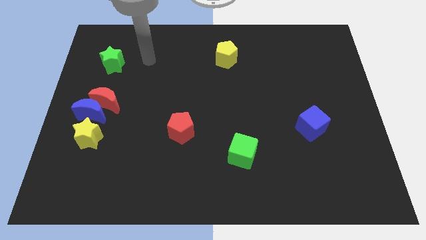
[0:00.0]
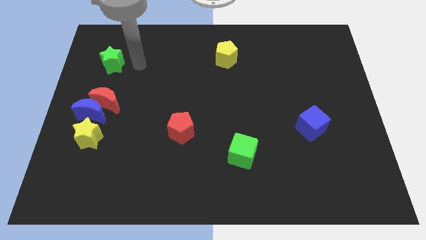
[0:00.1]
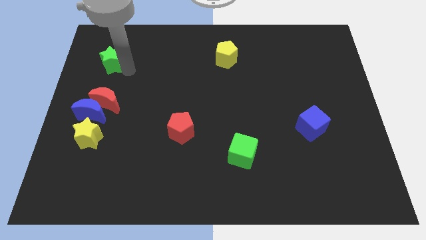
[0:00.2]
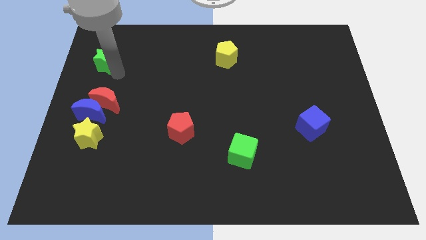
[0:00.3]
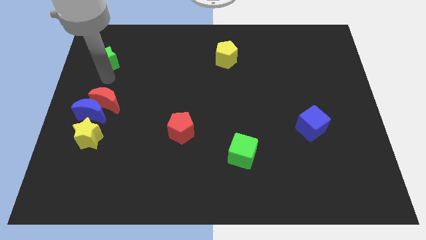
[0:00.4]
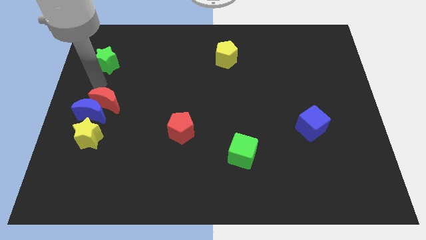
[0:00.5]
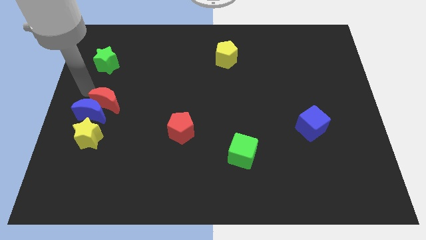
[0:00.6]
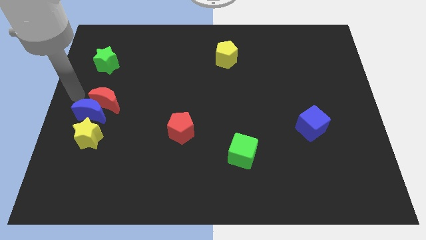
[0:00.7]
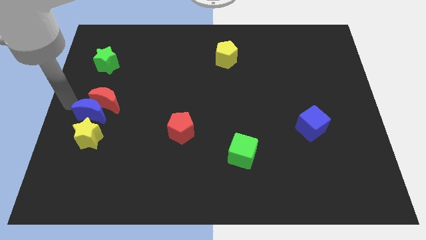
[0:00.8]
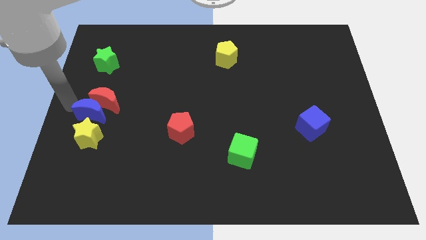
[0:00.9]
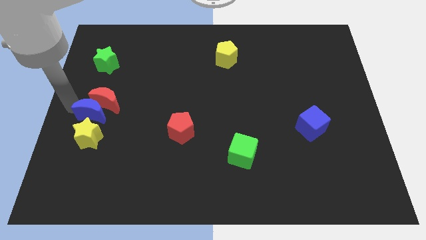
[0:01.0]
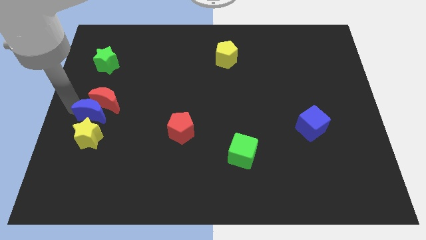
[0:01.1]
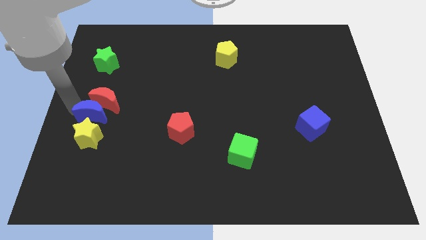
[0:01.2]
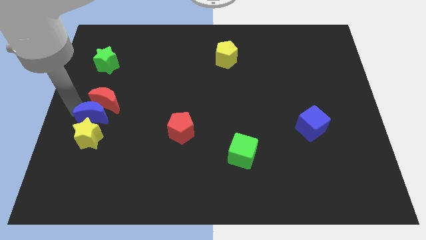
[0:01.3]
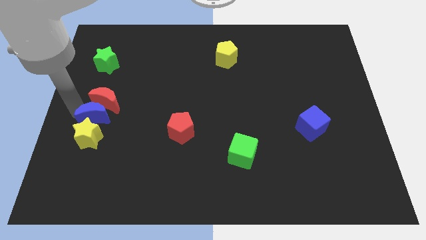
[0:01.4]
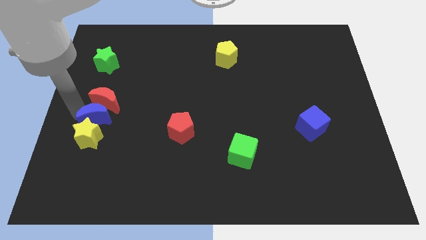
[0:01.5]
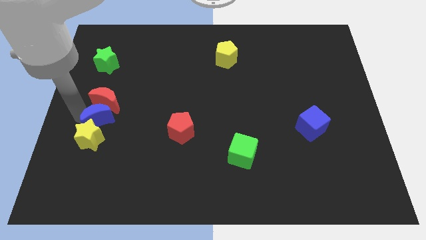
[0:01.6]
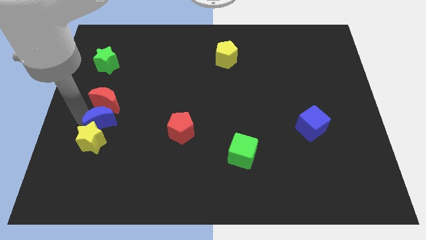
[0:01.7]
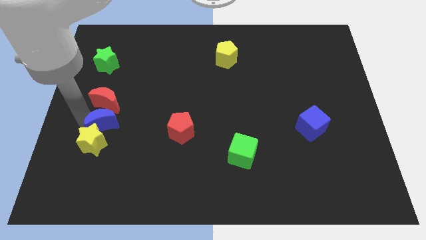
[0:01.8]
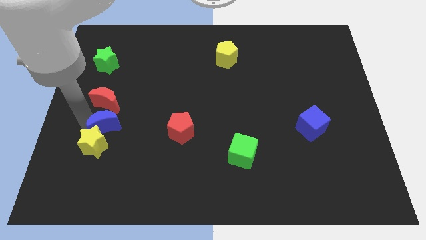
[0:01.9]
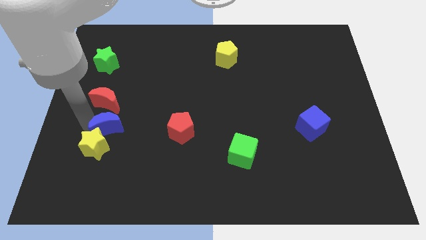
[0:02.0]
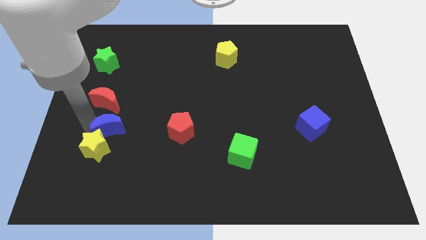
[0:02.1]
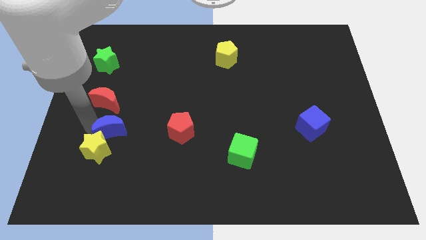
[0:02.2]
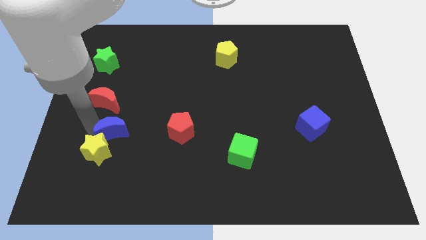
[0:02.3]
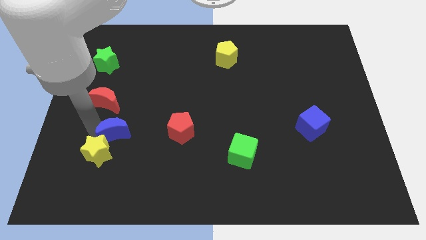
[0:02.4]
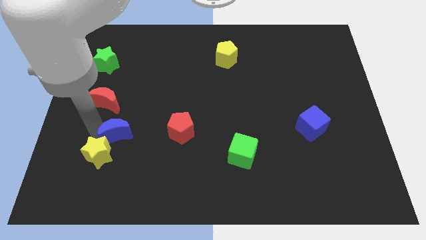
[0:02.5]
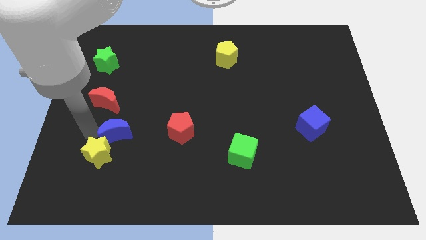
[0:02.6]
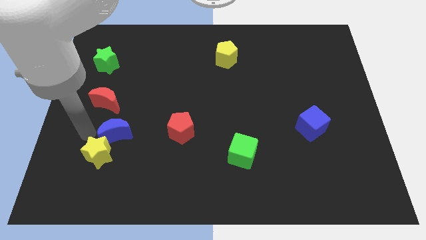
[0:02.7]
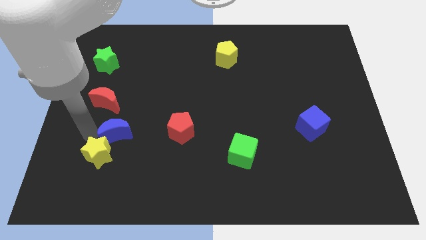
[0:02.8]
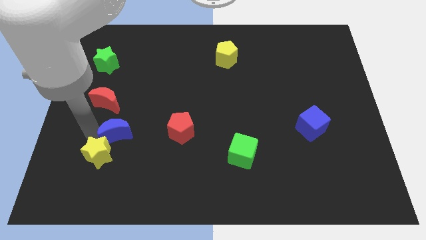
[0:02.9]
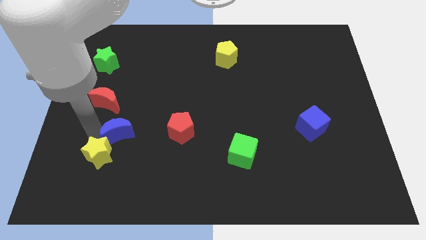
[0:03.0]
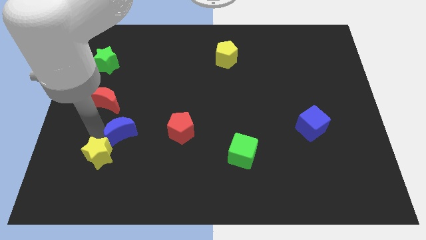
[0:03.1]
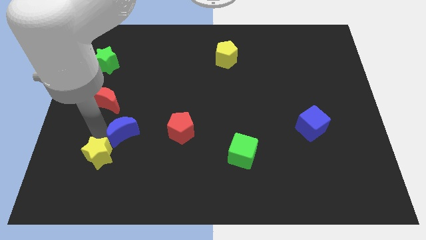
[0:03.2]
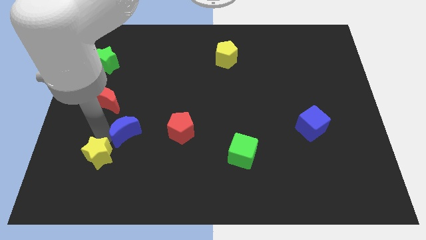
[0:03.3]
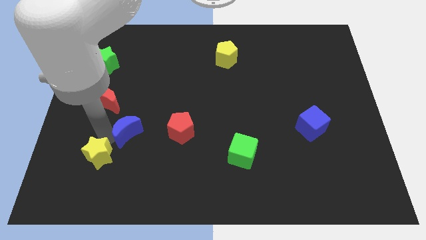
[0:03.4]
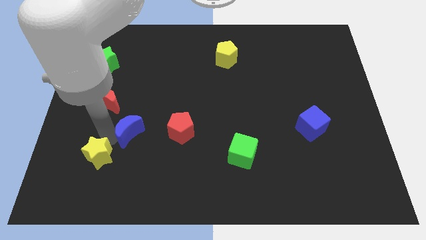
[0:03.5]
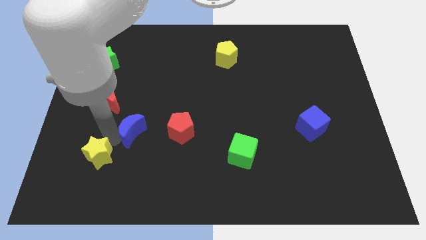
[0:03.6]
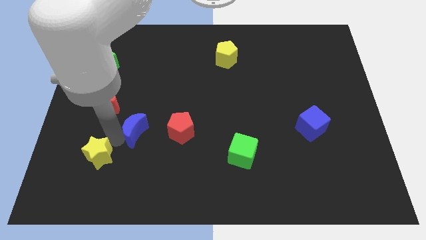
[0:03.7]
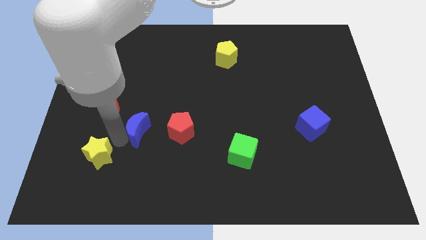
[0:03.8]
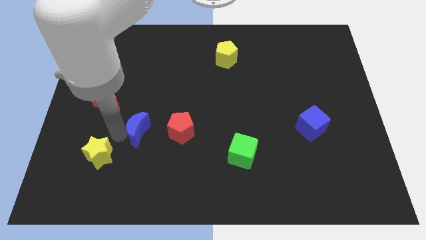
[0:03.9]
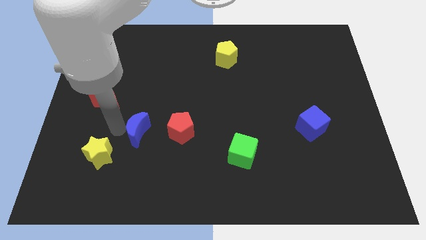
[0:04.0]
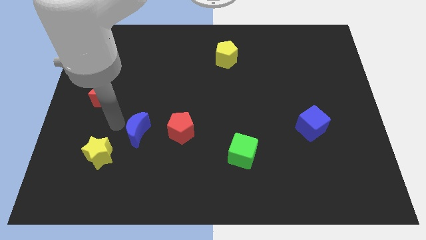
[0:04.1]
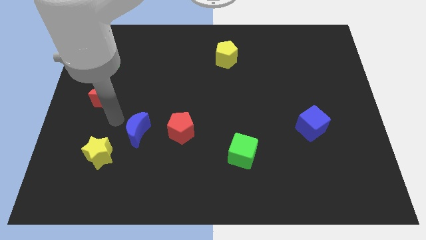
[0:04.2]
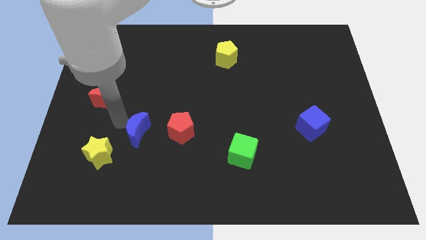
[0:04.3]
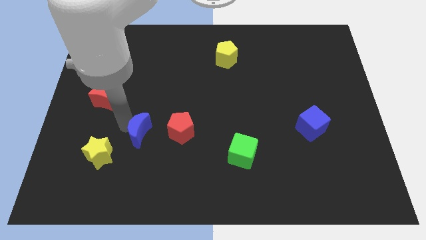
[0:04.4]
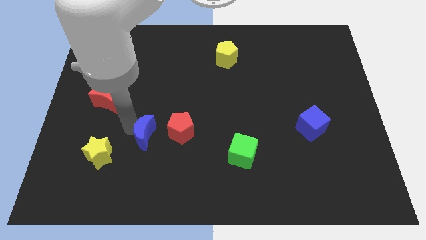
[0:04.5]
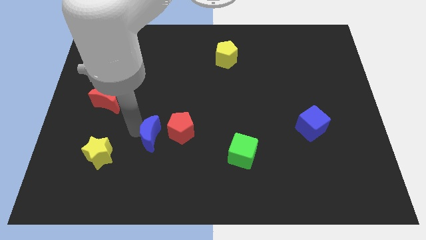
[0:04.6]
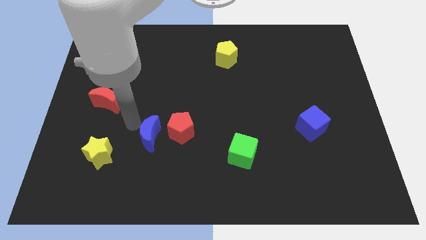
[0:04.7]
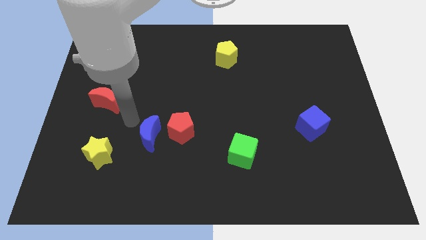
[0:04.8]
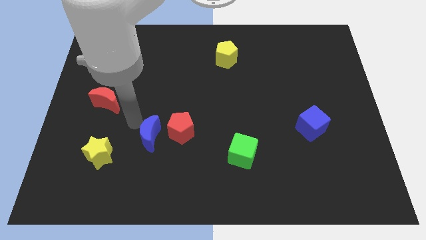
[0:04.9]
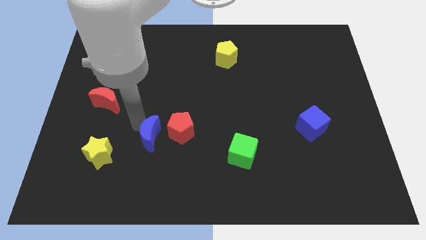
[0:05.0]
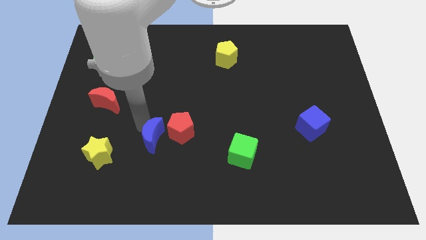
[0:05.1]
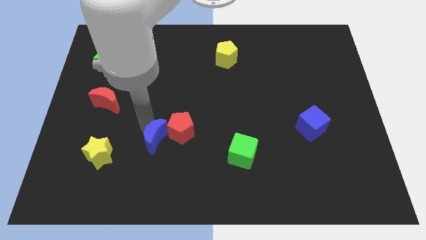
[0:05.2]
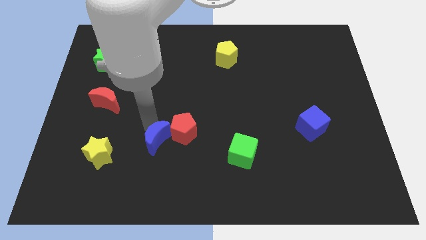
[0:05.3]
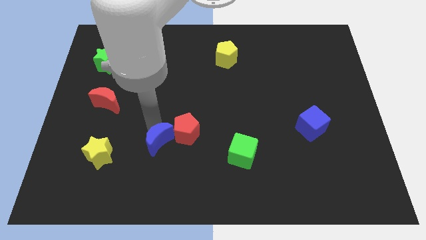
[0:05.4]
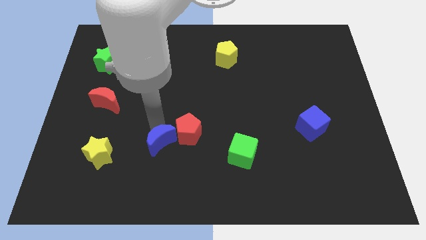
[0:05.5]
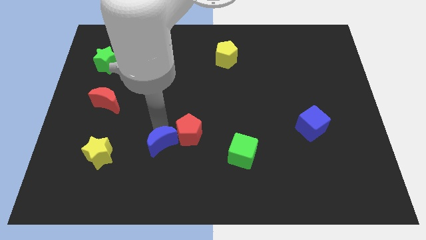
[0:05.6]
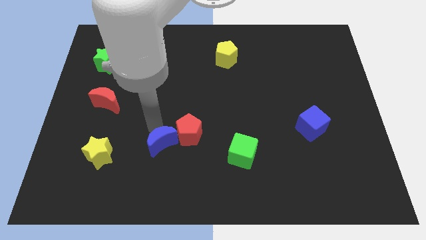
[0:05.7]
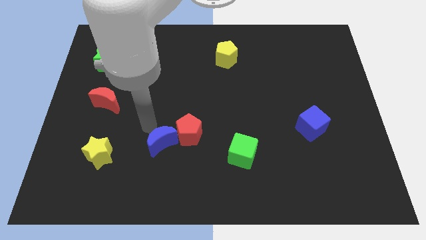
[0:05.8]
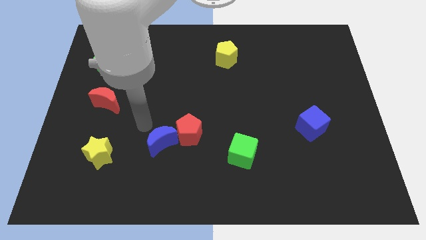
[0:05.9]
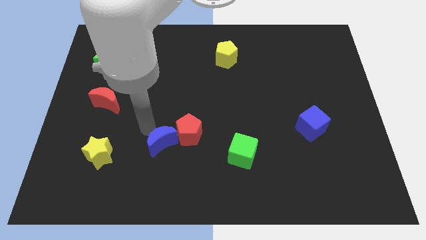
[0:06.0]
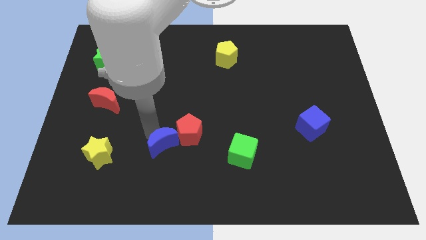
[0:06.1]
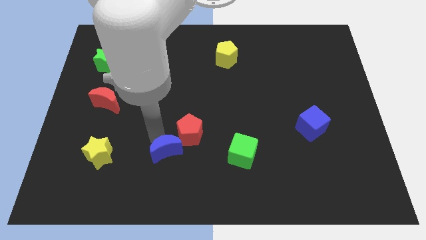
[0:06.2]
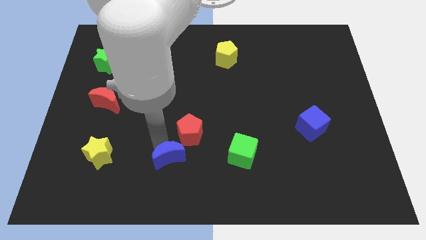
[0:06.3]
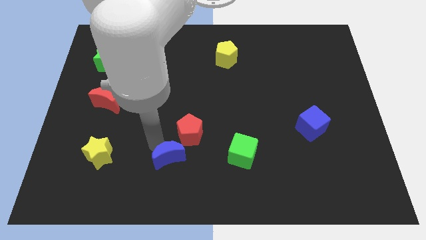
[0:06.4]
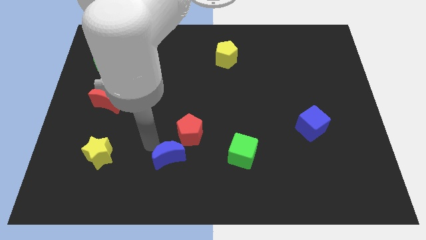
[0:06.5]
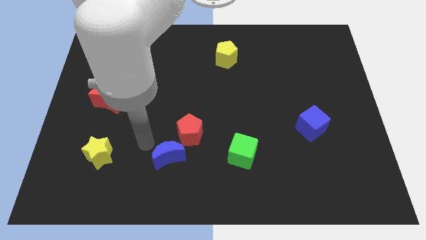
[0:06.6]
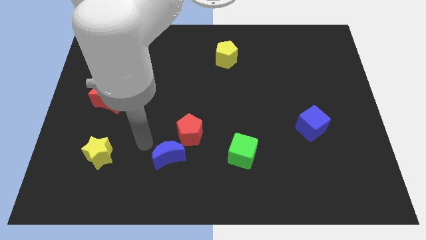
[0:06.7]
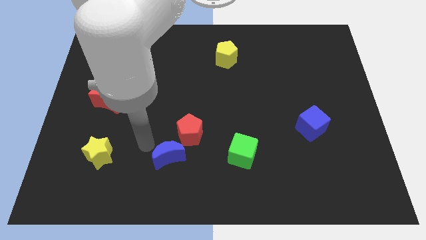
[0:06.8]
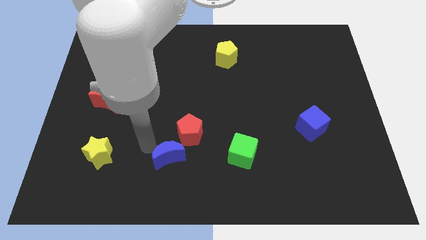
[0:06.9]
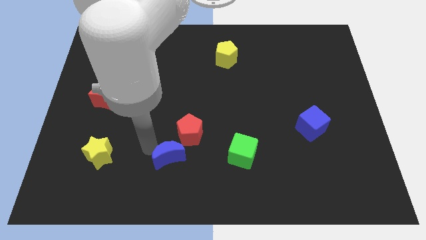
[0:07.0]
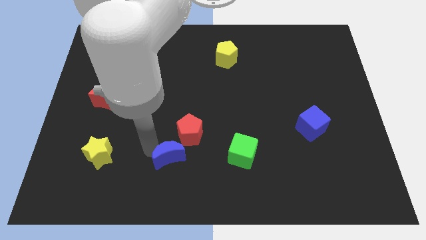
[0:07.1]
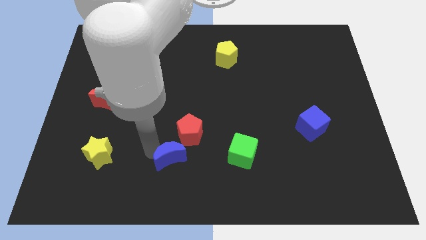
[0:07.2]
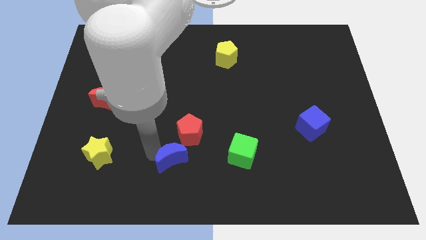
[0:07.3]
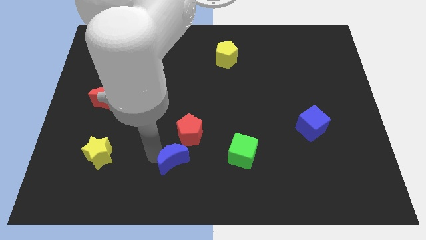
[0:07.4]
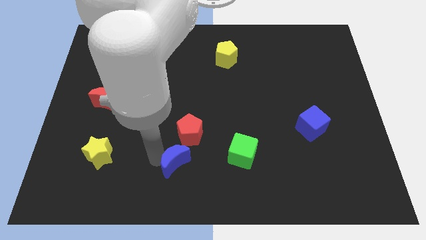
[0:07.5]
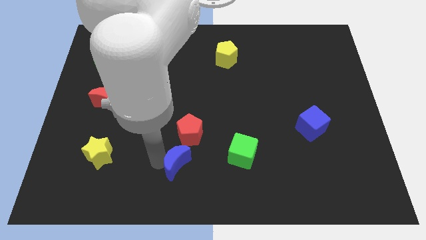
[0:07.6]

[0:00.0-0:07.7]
put the blue moon to the bottom side
